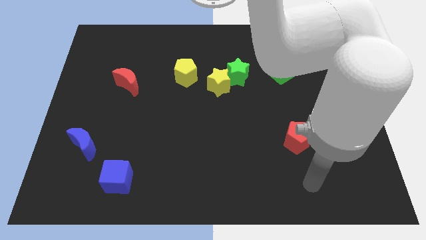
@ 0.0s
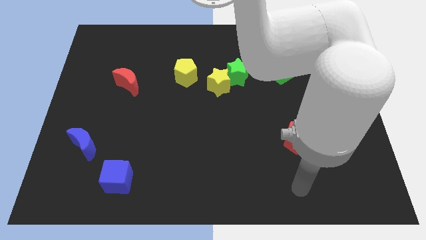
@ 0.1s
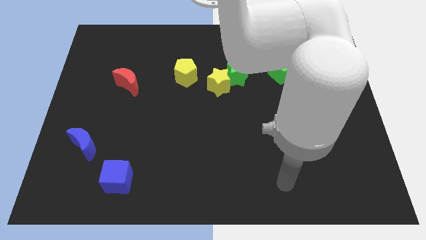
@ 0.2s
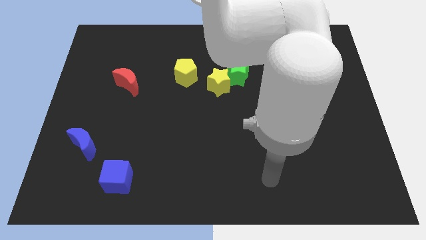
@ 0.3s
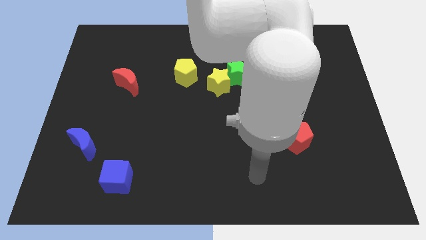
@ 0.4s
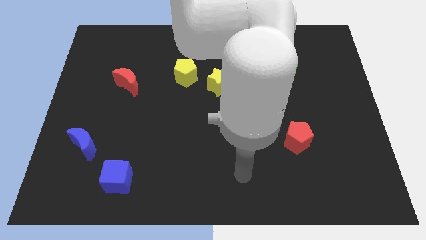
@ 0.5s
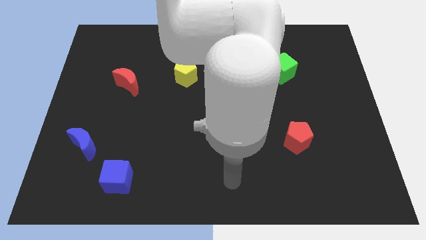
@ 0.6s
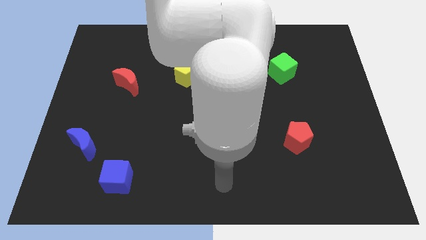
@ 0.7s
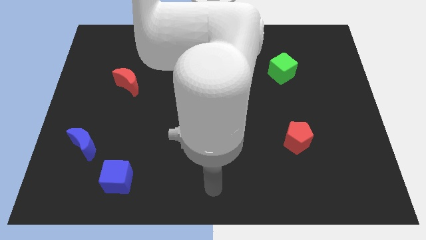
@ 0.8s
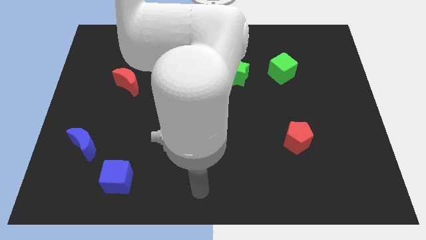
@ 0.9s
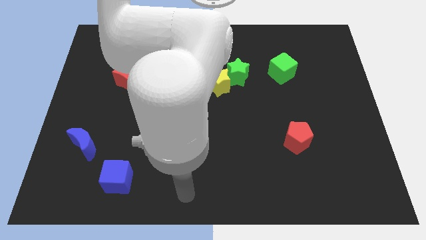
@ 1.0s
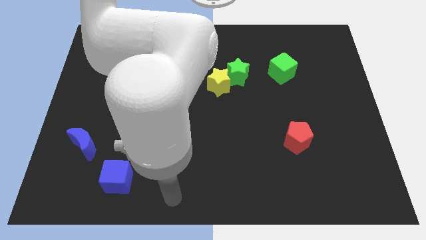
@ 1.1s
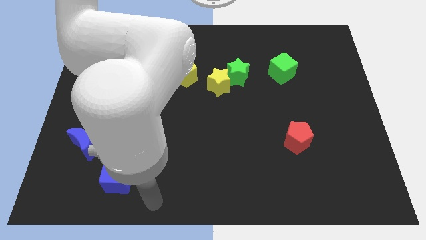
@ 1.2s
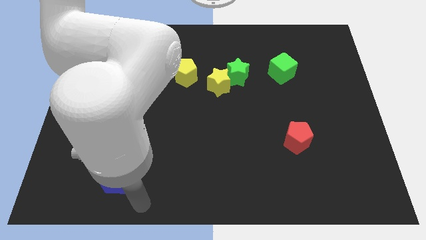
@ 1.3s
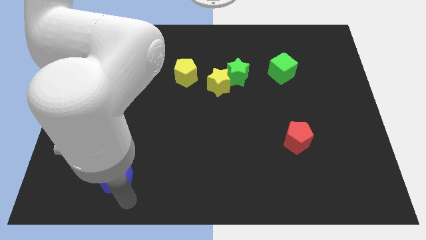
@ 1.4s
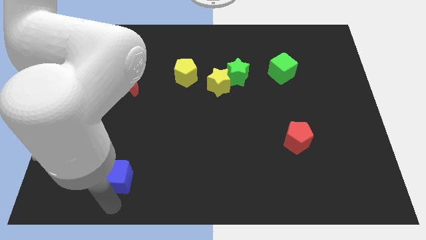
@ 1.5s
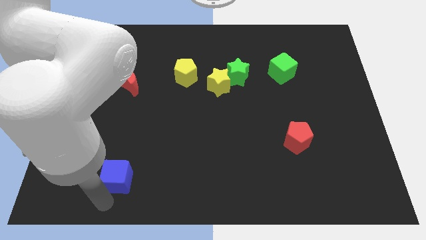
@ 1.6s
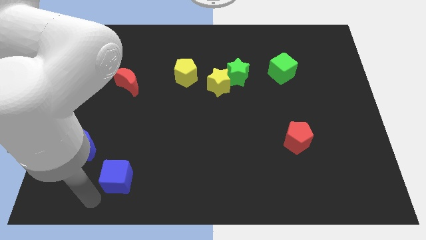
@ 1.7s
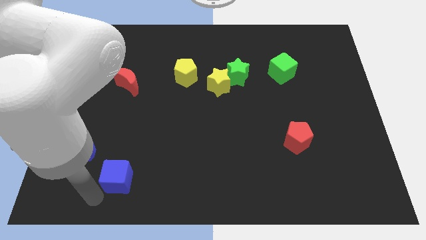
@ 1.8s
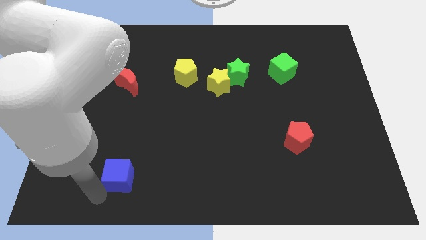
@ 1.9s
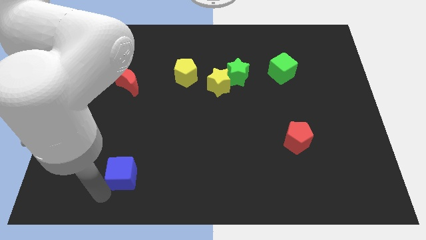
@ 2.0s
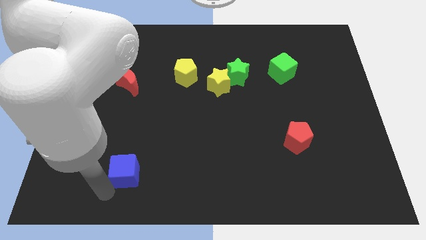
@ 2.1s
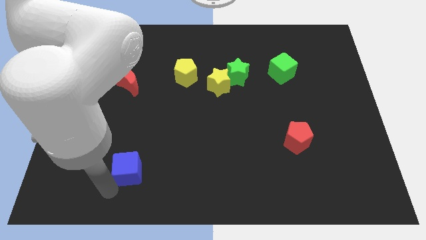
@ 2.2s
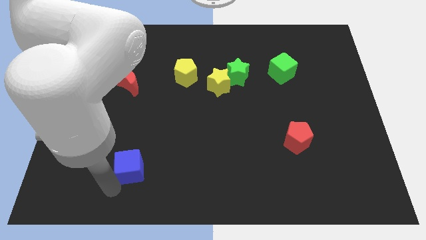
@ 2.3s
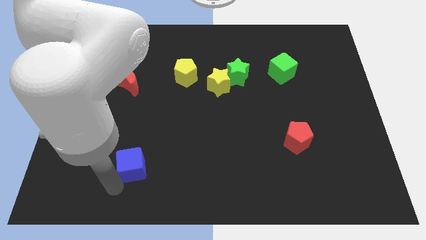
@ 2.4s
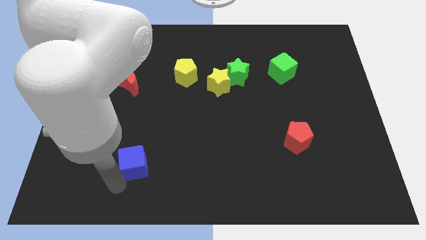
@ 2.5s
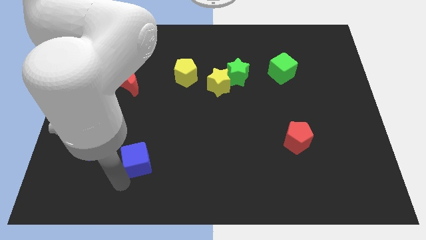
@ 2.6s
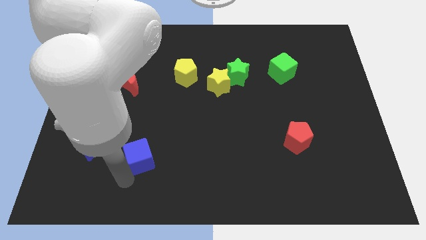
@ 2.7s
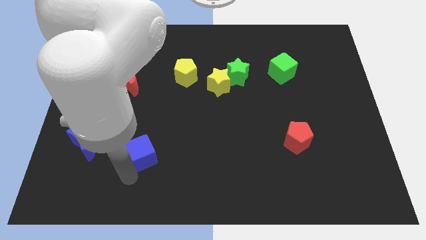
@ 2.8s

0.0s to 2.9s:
slightly slide the blue cube upwards and to the right diagonally

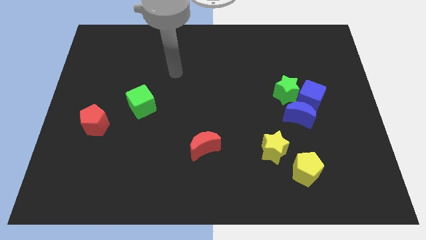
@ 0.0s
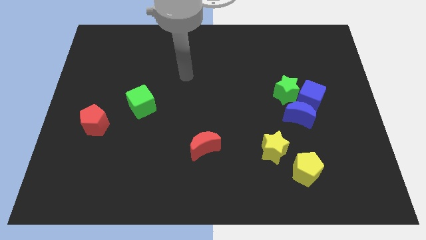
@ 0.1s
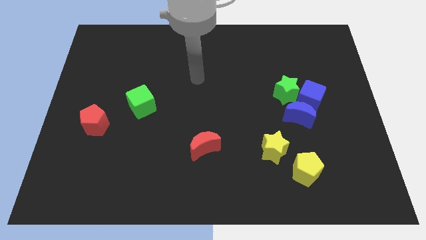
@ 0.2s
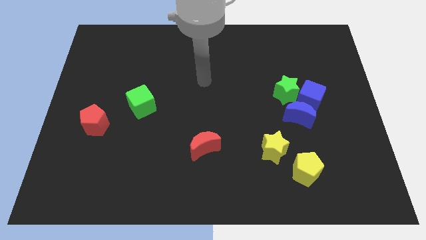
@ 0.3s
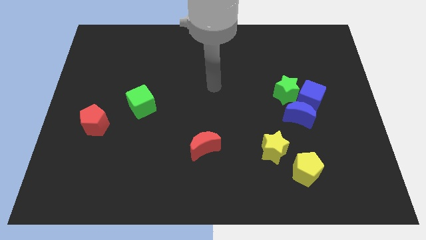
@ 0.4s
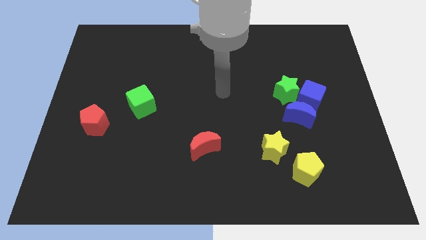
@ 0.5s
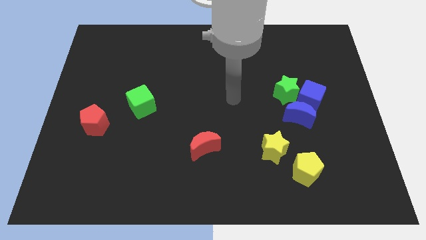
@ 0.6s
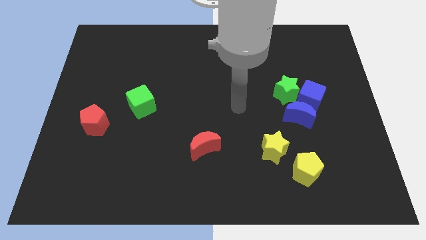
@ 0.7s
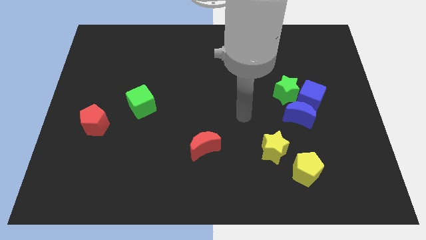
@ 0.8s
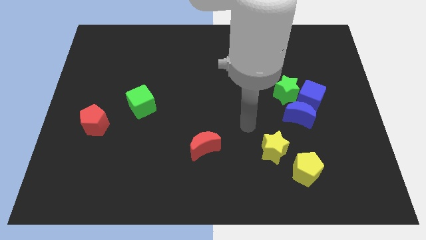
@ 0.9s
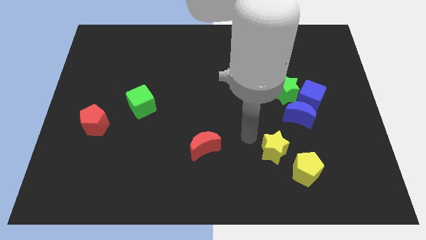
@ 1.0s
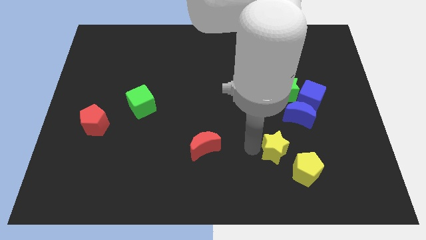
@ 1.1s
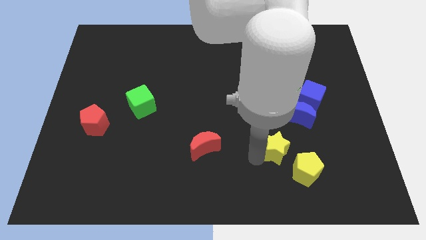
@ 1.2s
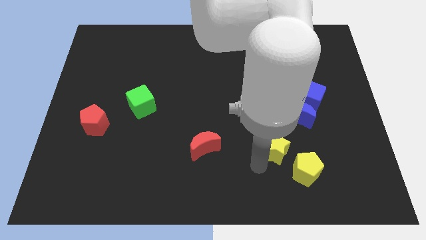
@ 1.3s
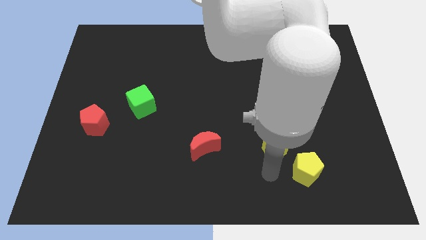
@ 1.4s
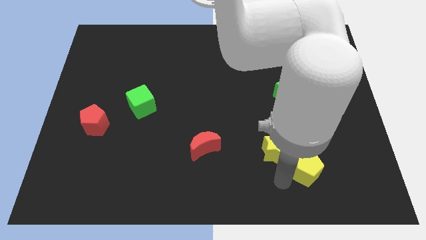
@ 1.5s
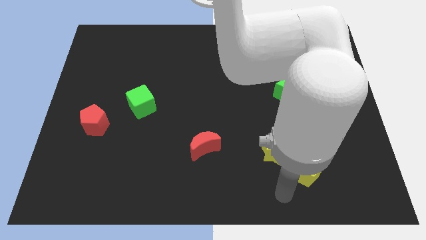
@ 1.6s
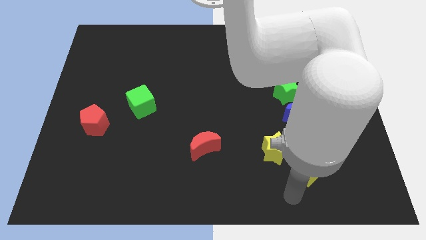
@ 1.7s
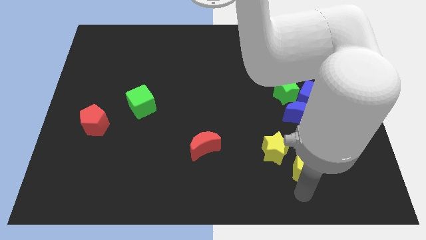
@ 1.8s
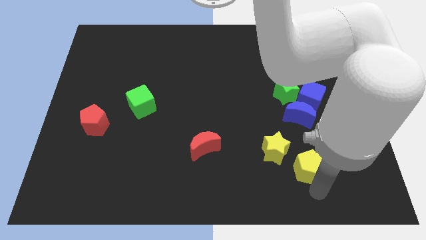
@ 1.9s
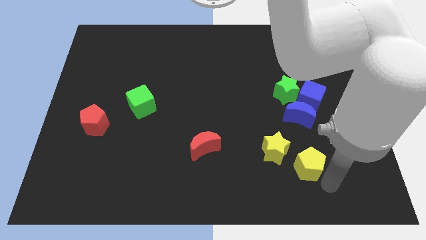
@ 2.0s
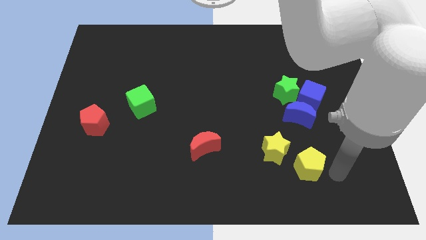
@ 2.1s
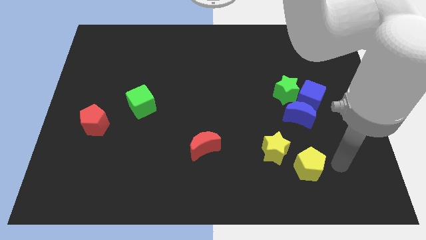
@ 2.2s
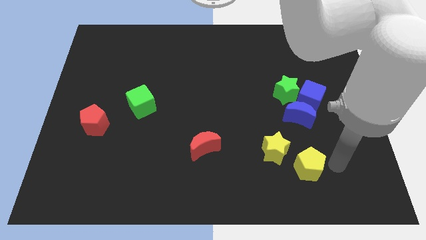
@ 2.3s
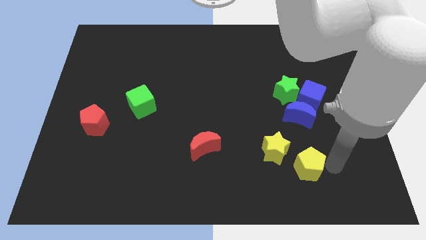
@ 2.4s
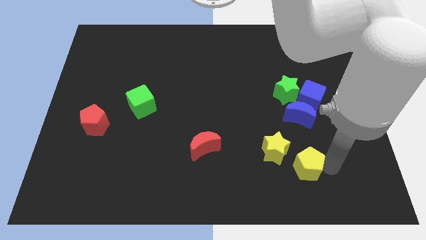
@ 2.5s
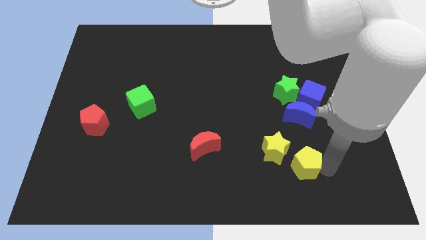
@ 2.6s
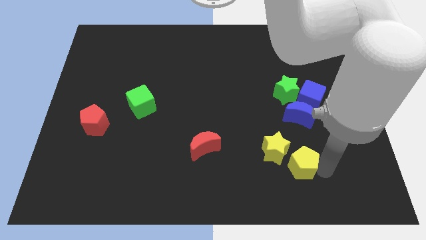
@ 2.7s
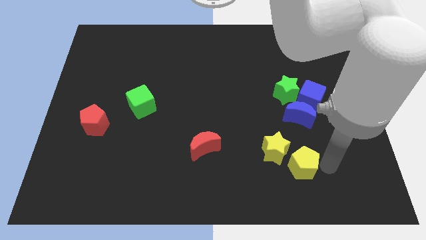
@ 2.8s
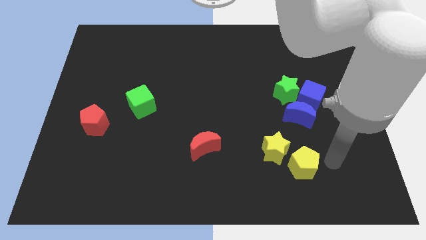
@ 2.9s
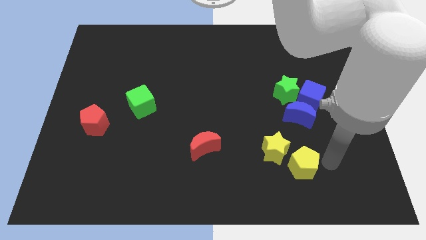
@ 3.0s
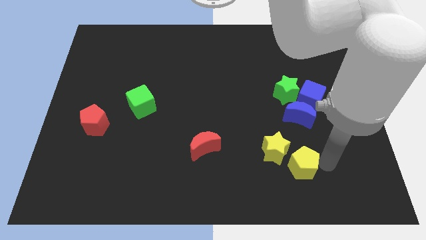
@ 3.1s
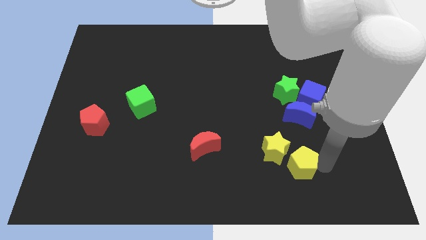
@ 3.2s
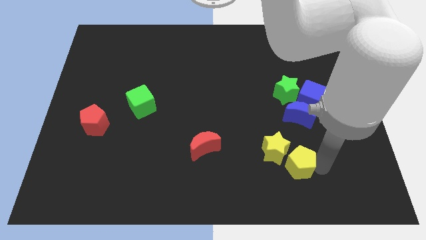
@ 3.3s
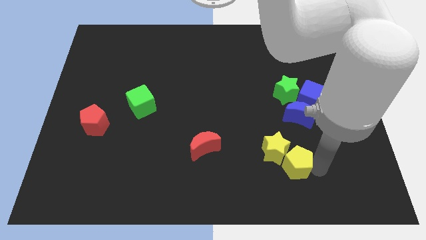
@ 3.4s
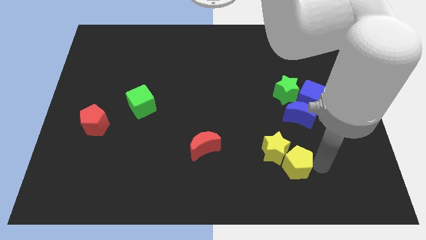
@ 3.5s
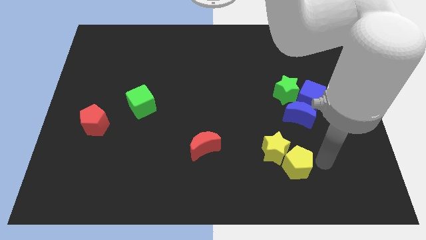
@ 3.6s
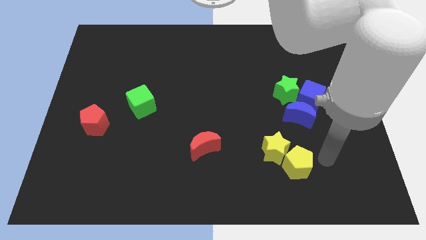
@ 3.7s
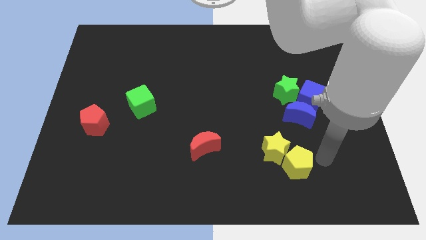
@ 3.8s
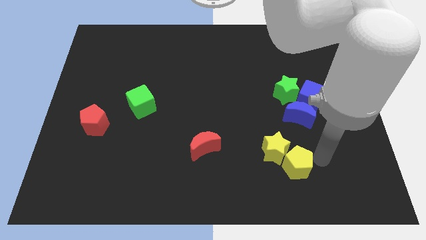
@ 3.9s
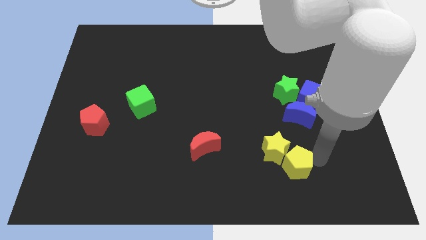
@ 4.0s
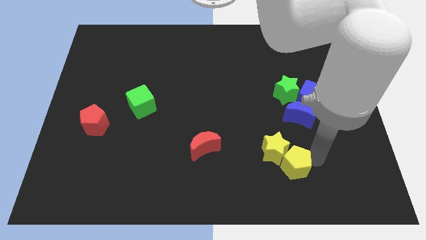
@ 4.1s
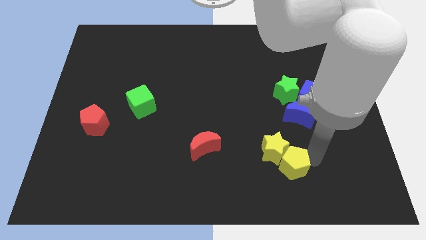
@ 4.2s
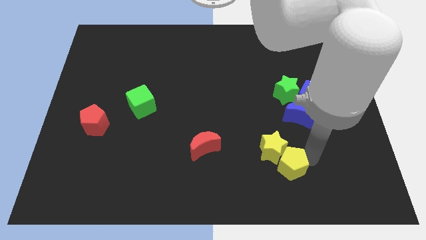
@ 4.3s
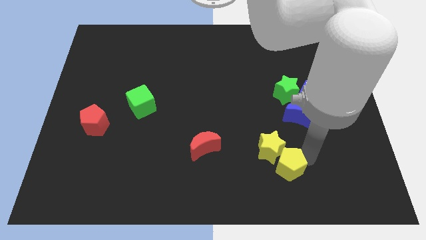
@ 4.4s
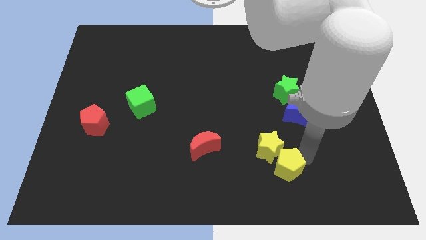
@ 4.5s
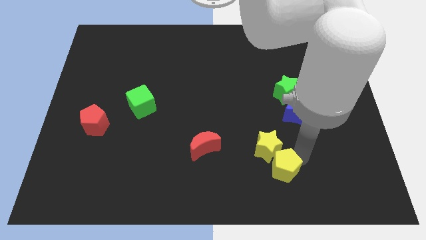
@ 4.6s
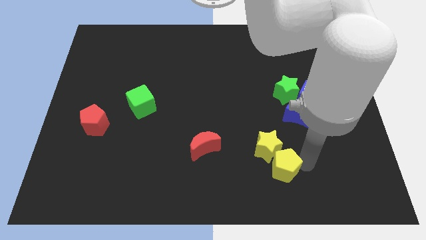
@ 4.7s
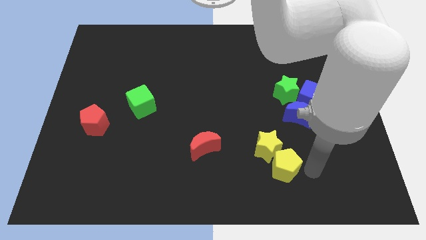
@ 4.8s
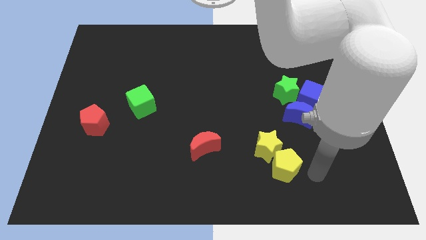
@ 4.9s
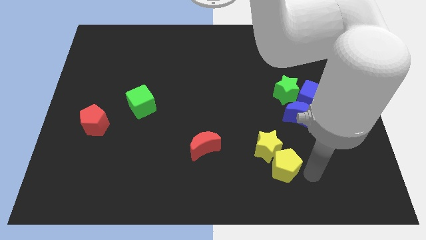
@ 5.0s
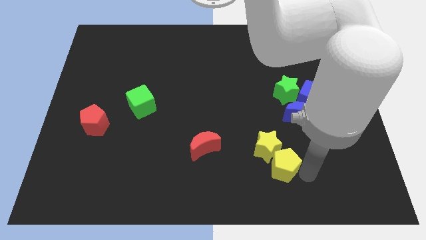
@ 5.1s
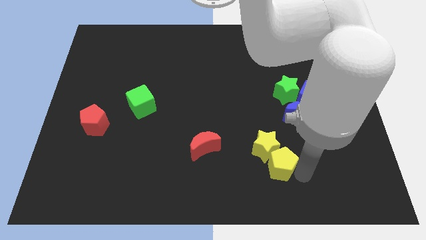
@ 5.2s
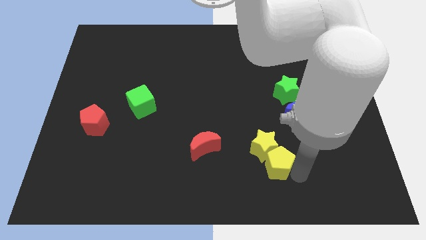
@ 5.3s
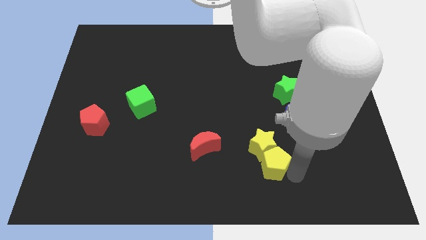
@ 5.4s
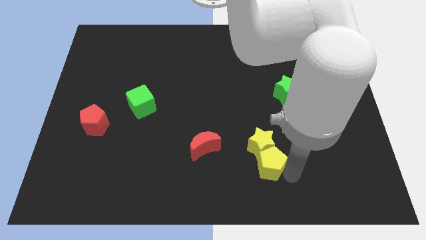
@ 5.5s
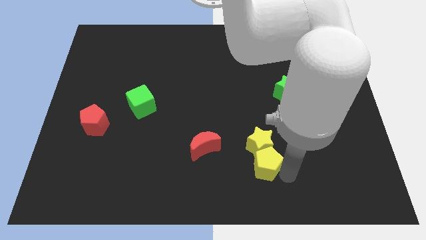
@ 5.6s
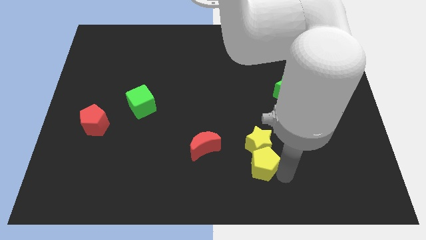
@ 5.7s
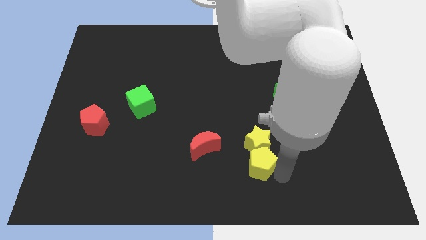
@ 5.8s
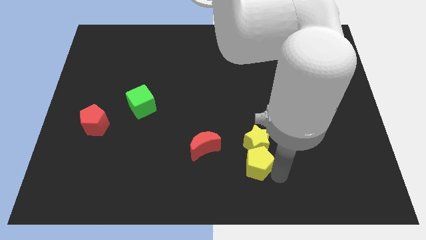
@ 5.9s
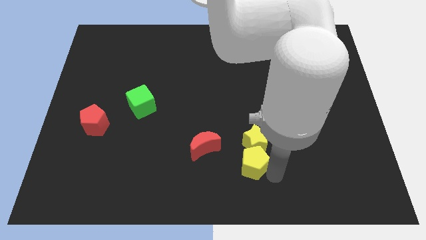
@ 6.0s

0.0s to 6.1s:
slide the yellow pentagon diagonally upwards and to the left a little bit
